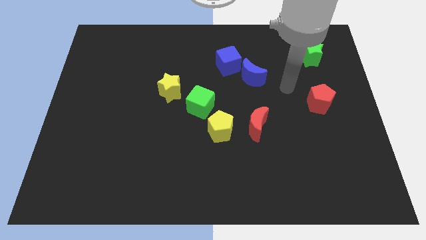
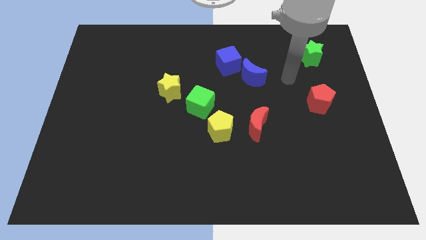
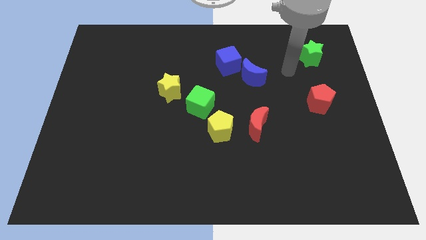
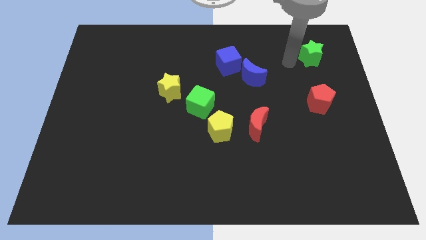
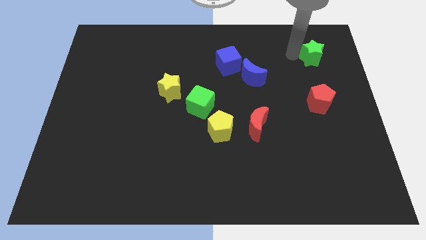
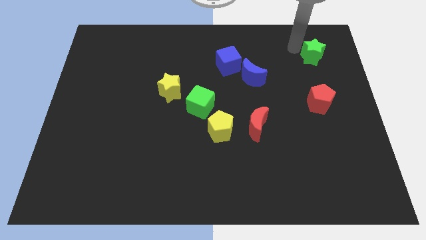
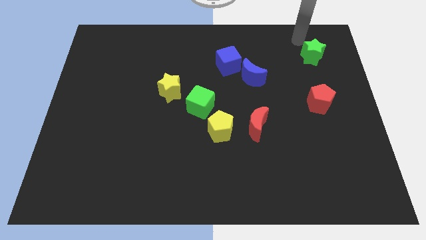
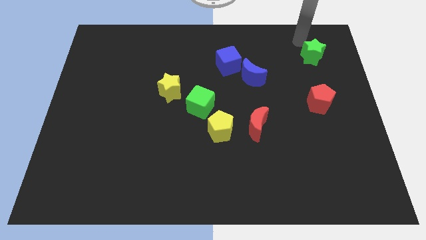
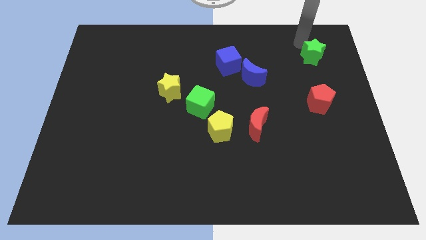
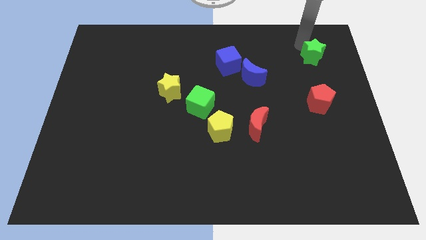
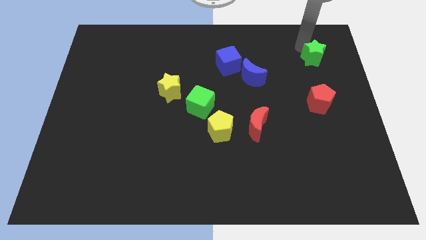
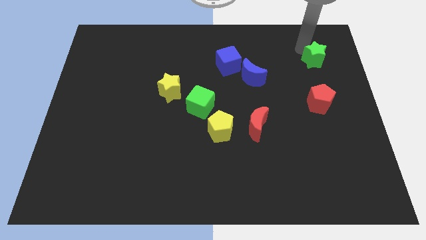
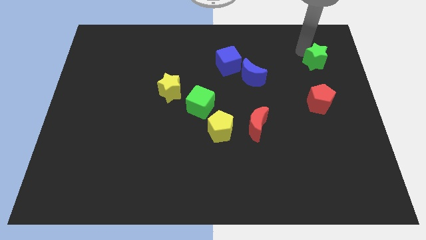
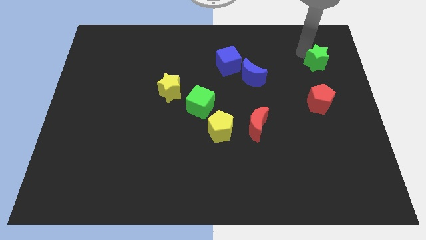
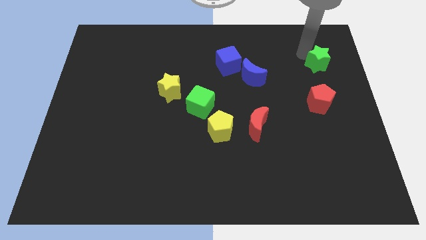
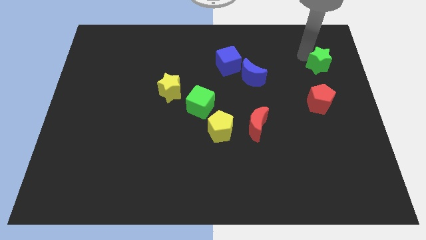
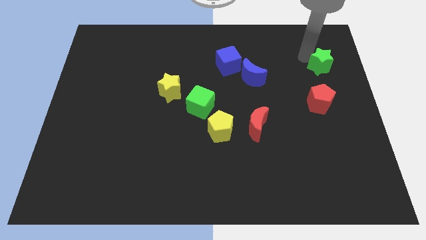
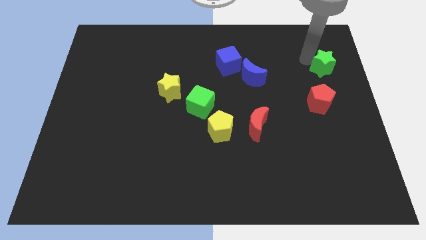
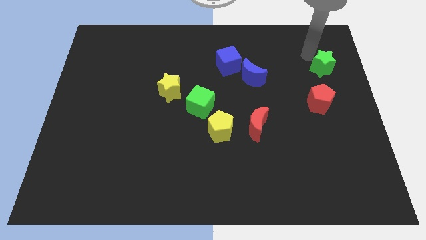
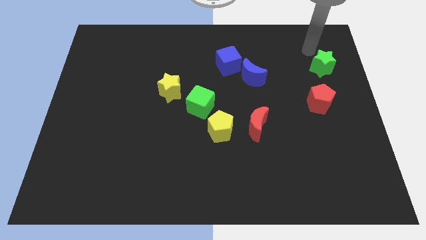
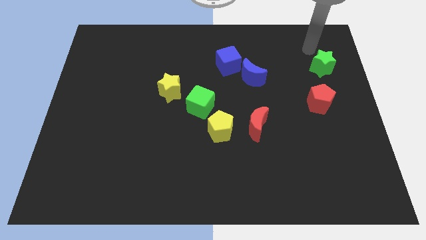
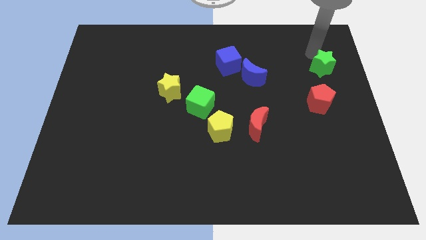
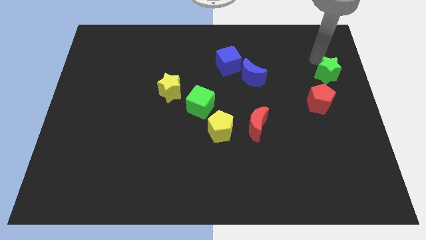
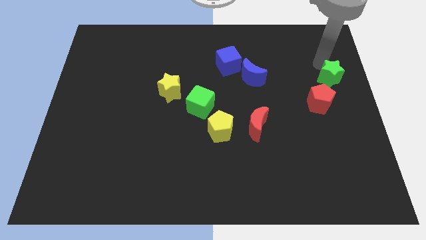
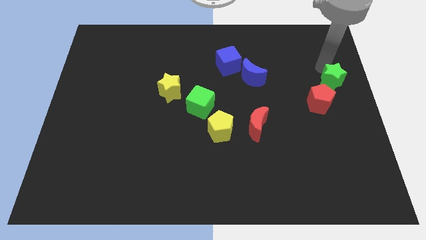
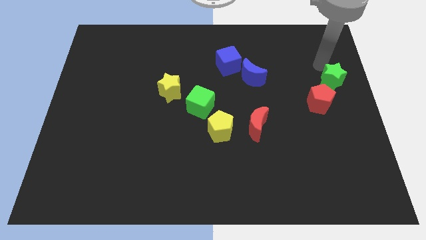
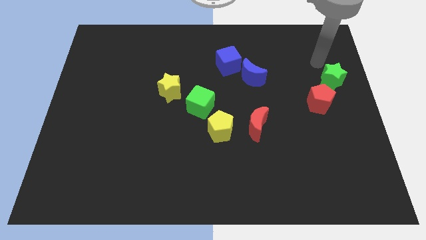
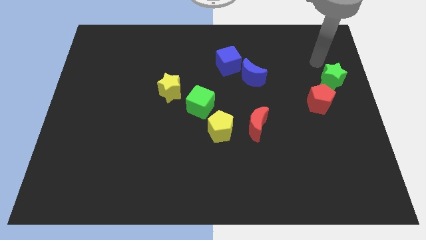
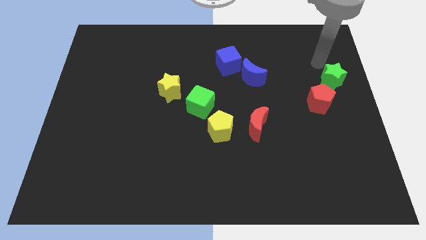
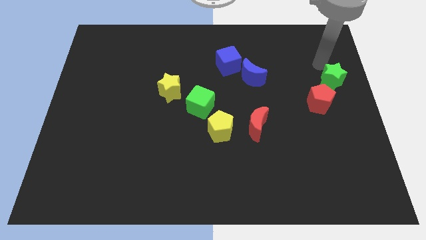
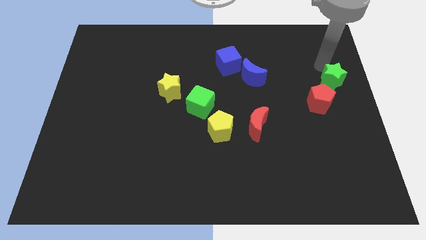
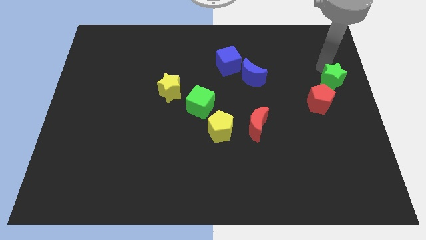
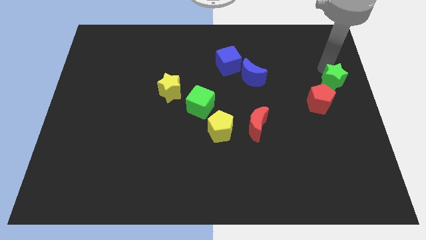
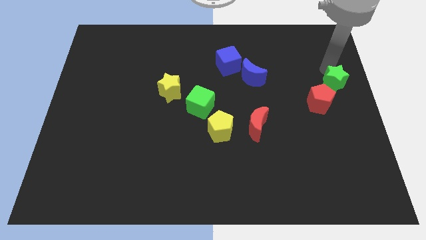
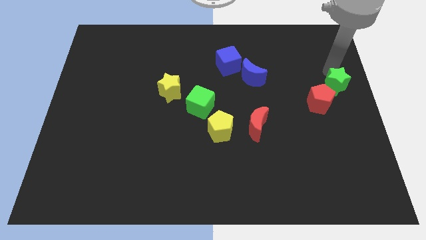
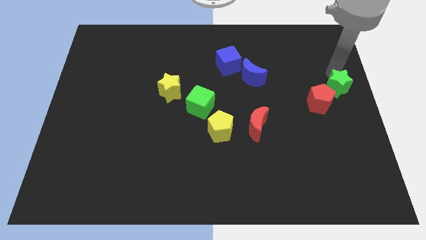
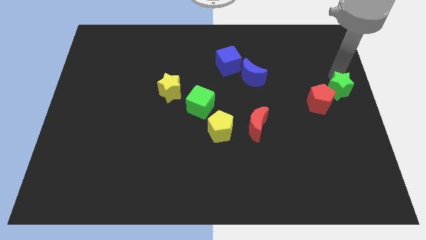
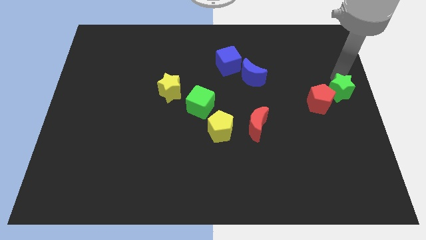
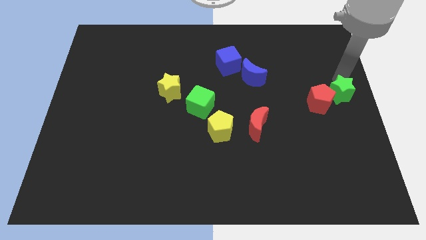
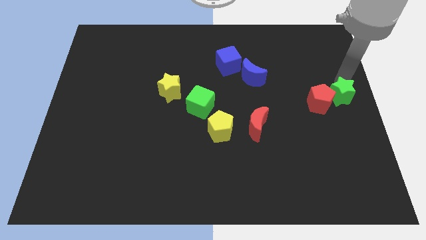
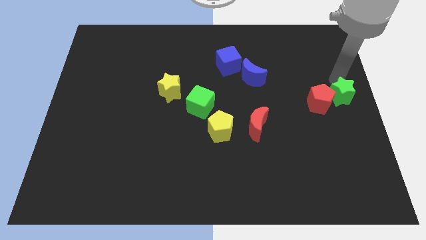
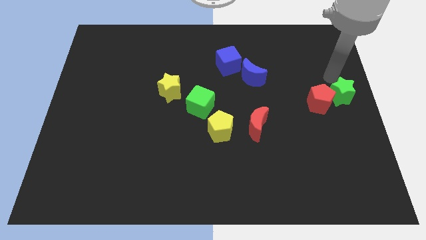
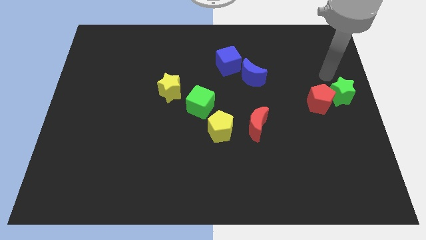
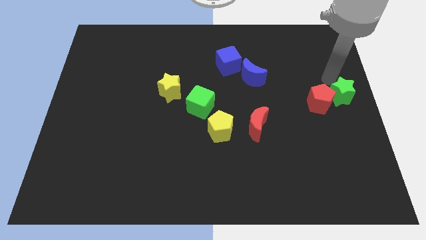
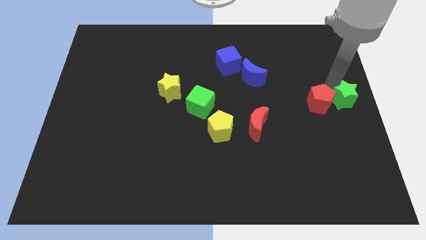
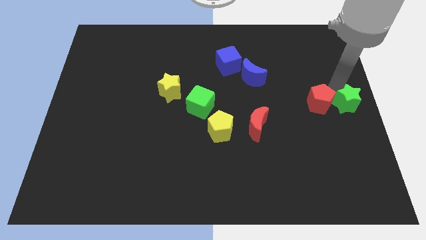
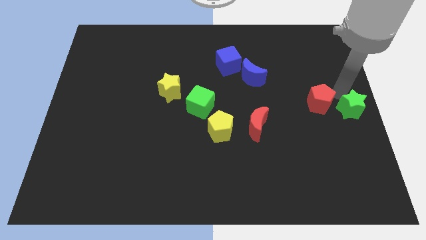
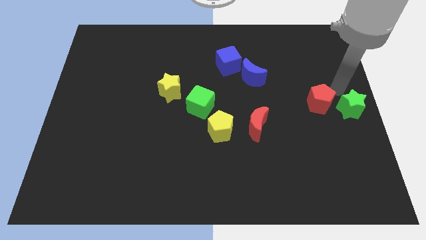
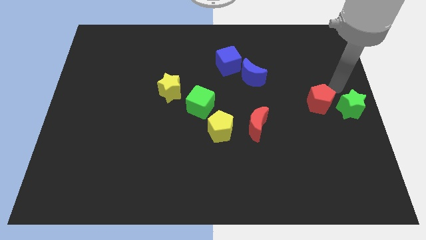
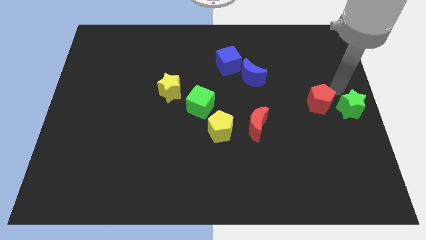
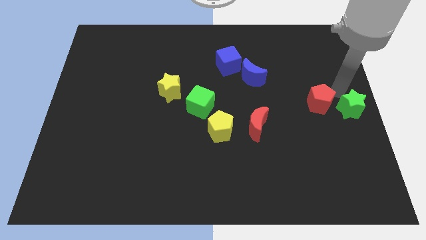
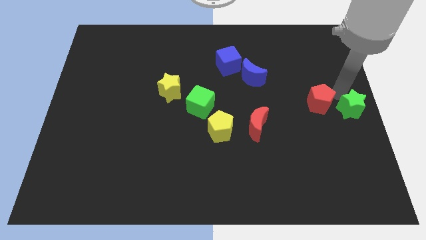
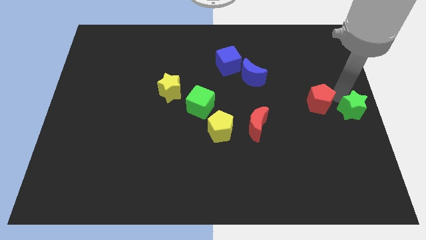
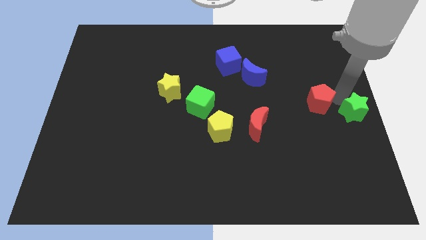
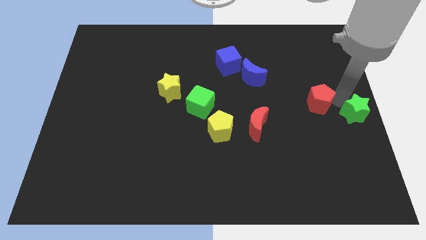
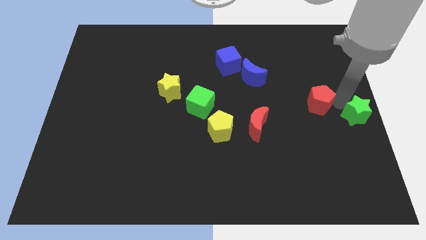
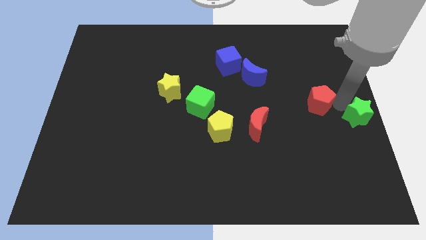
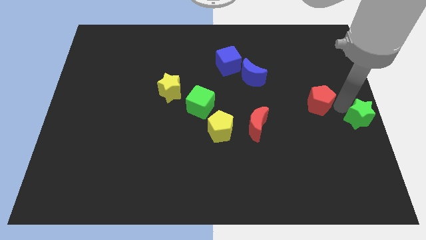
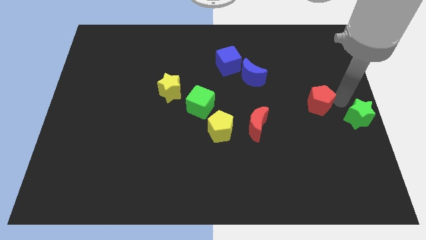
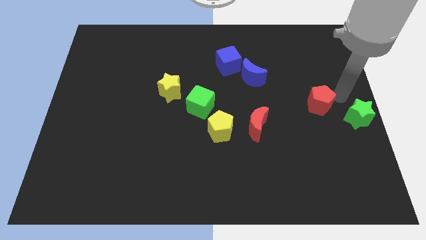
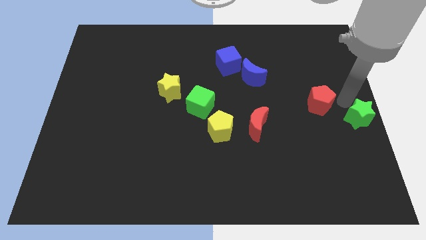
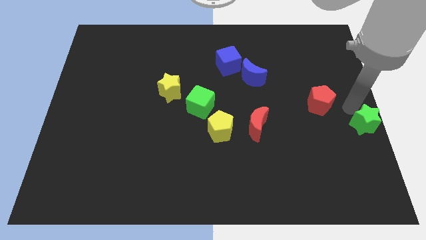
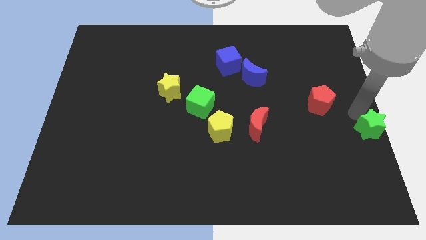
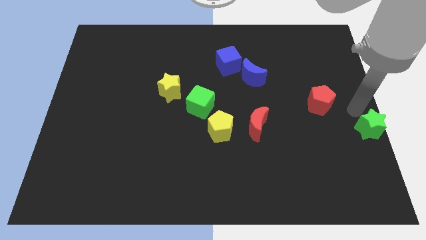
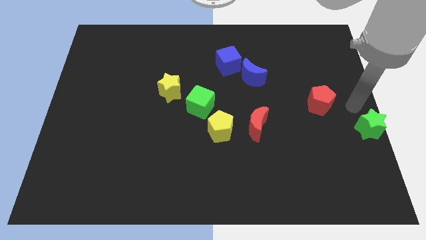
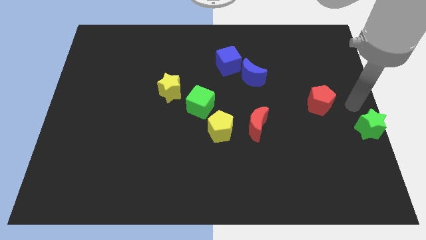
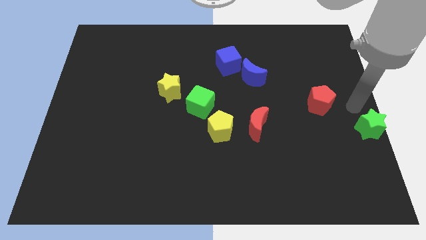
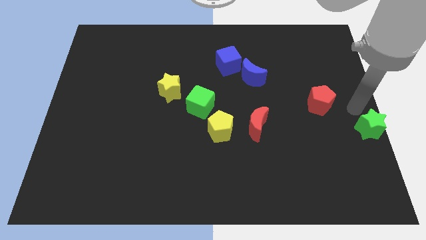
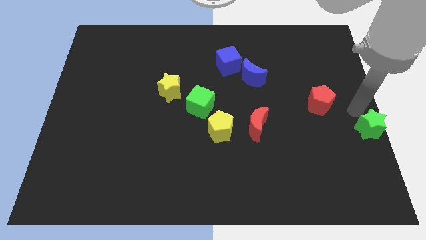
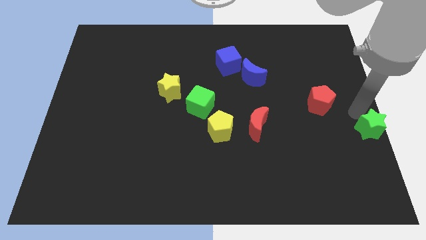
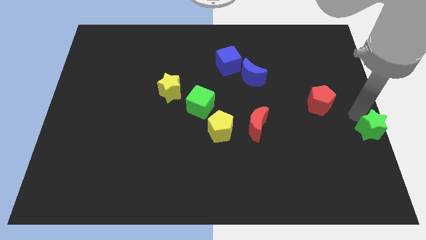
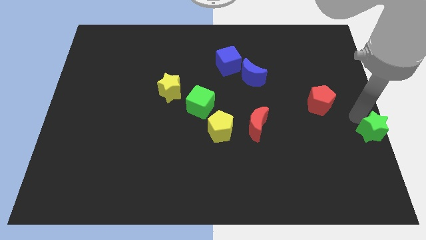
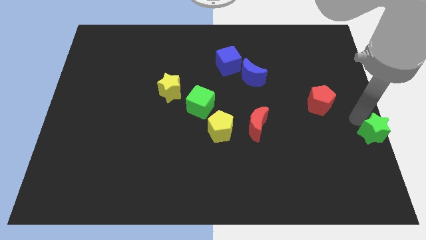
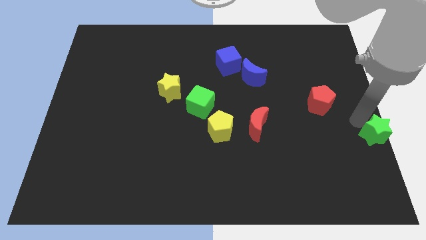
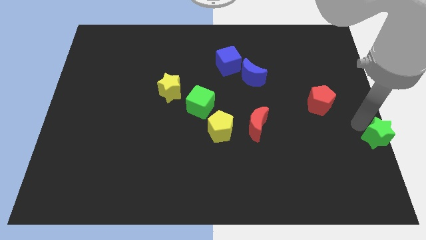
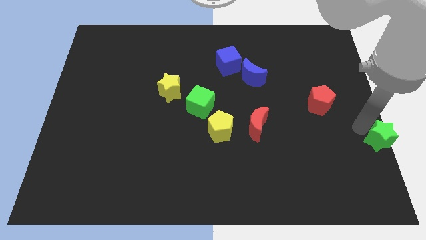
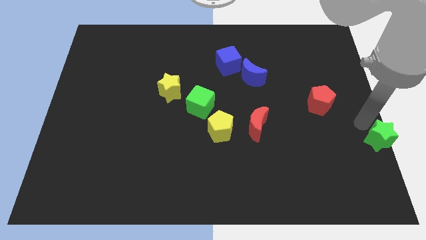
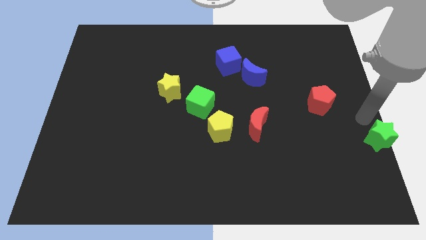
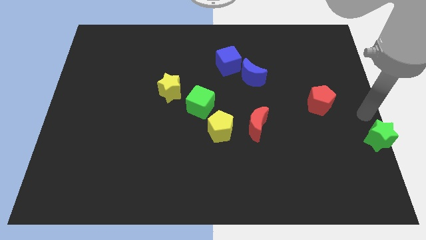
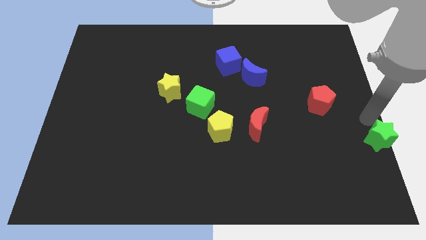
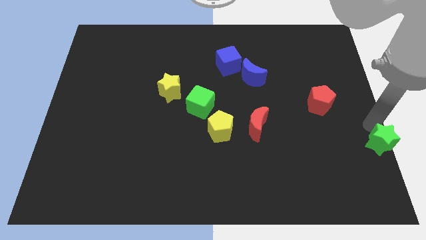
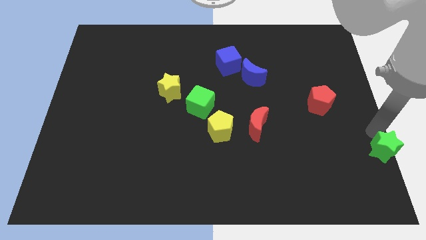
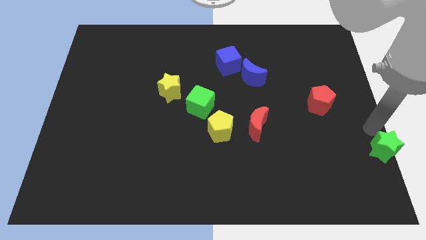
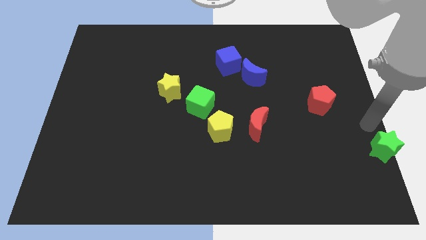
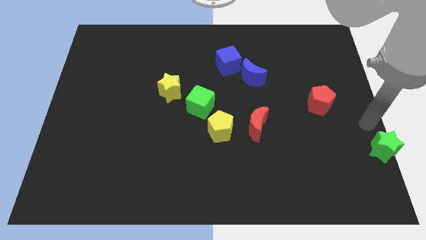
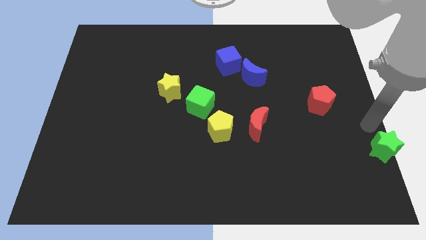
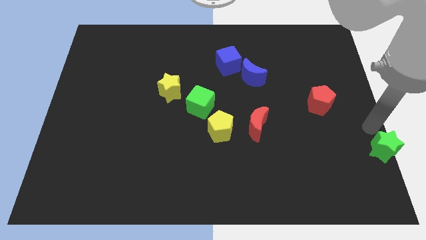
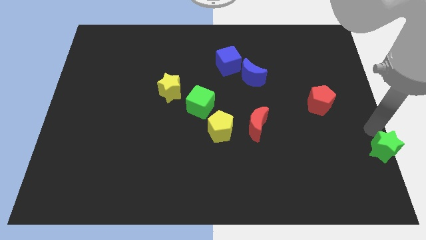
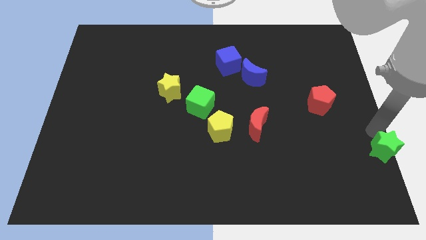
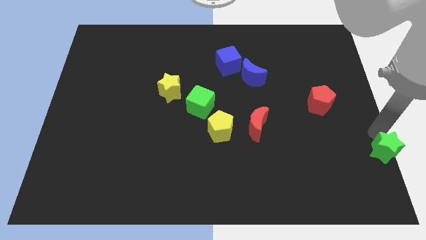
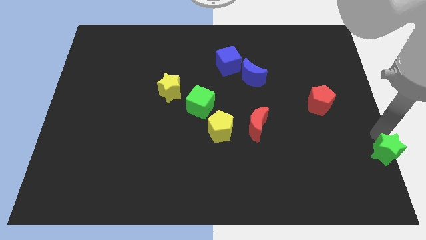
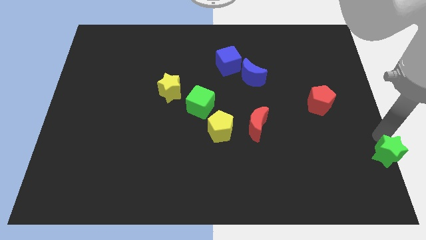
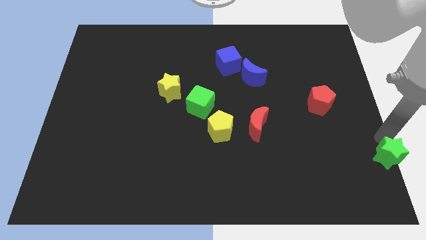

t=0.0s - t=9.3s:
put the green star to the bottom right corner
